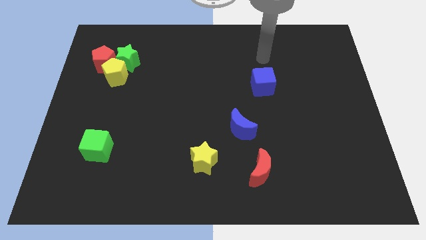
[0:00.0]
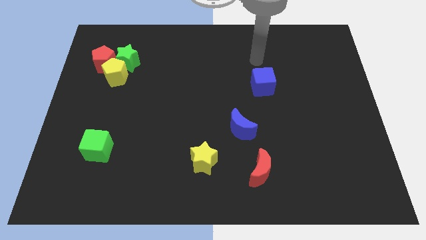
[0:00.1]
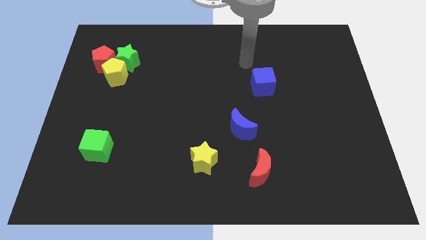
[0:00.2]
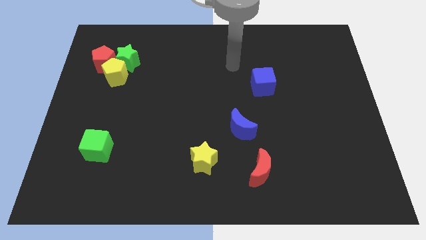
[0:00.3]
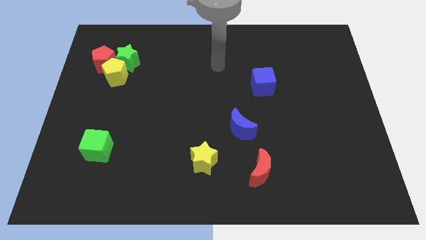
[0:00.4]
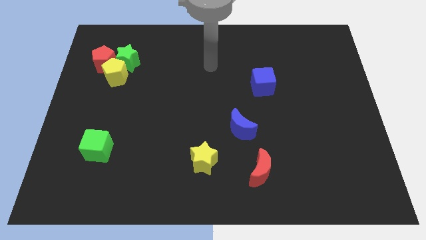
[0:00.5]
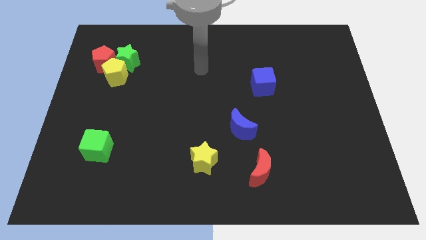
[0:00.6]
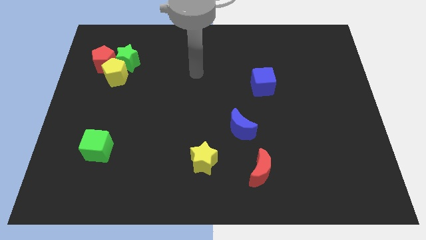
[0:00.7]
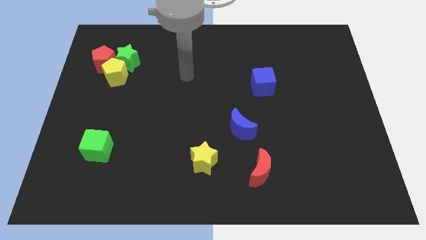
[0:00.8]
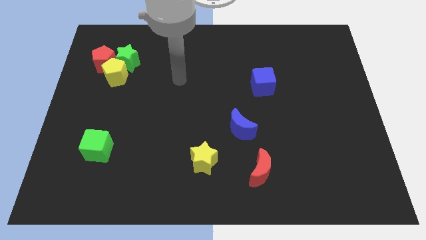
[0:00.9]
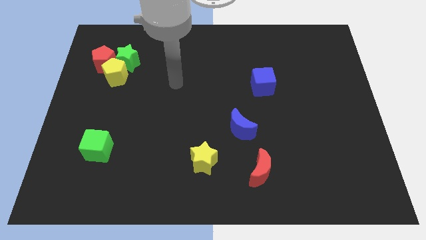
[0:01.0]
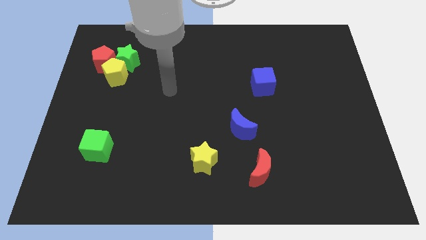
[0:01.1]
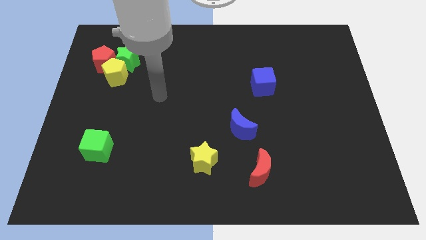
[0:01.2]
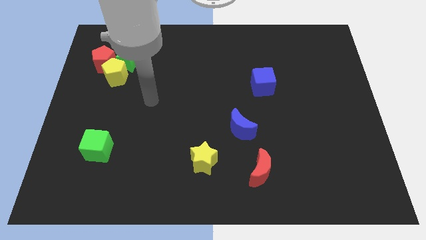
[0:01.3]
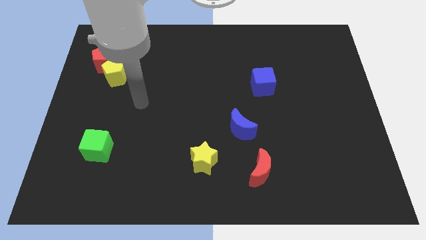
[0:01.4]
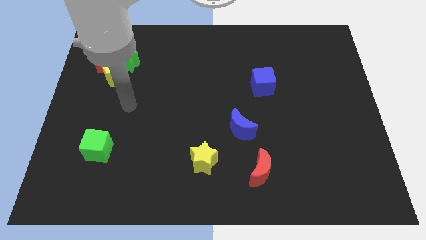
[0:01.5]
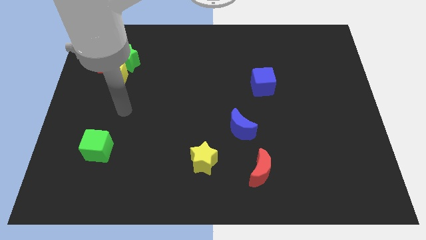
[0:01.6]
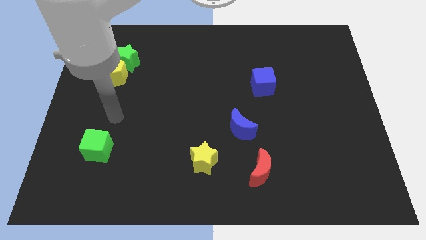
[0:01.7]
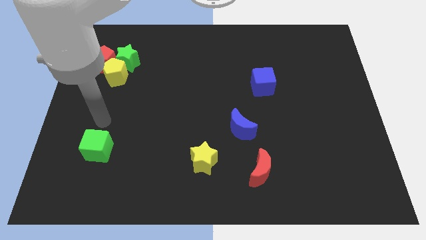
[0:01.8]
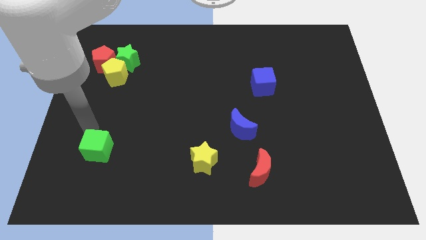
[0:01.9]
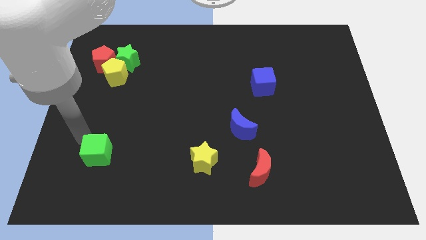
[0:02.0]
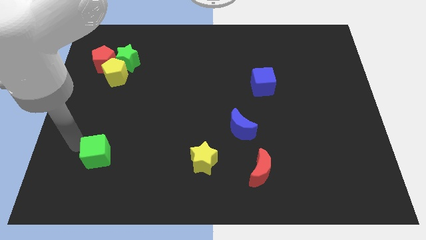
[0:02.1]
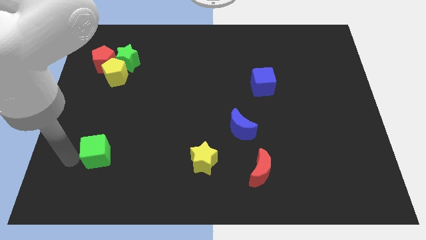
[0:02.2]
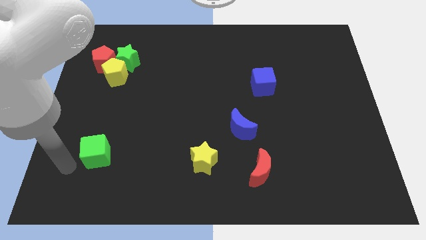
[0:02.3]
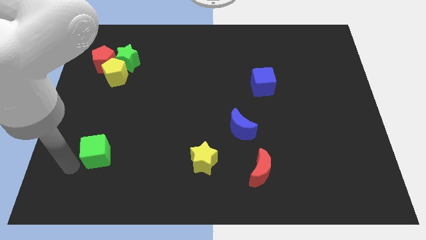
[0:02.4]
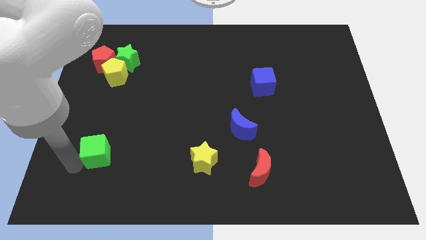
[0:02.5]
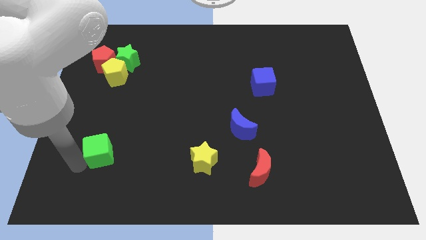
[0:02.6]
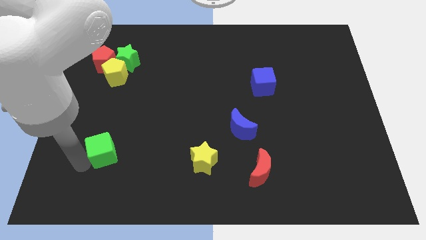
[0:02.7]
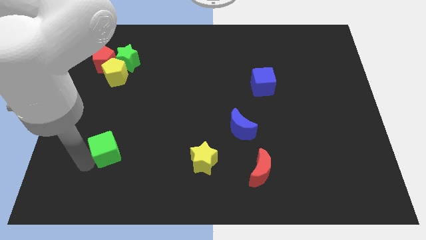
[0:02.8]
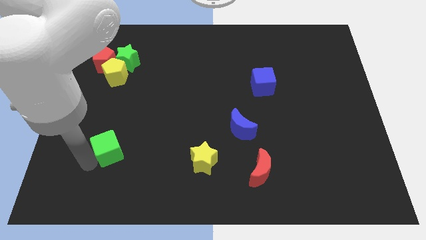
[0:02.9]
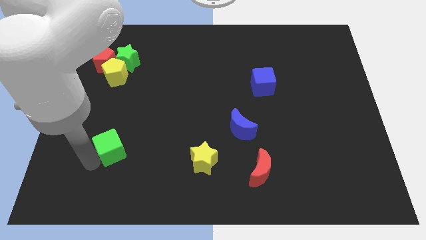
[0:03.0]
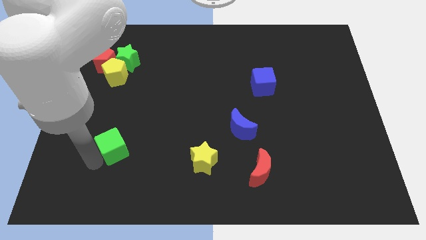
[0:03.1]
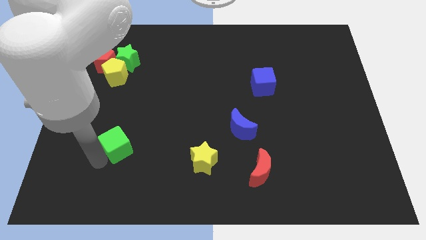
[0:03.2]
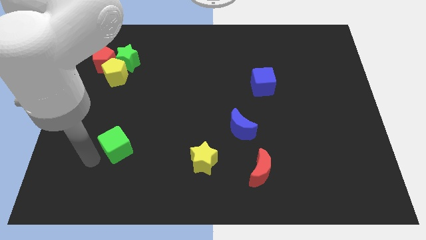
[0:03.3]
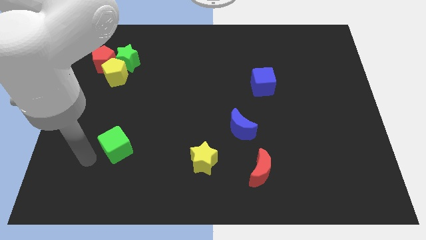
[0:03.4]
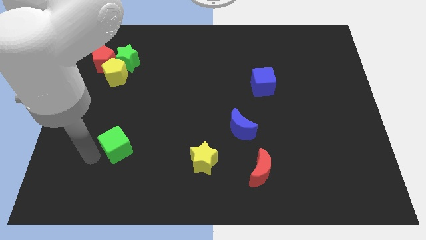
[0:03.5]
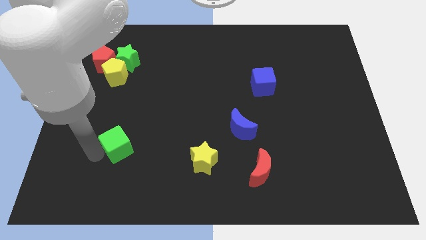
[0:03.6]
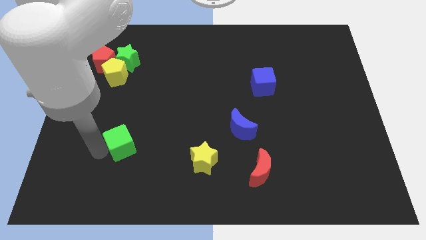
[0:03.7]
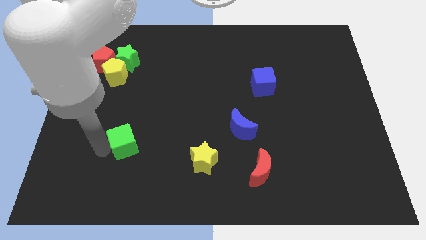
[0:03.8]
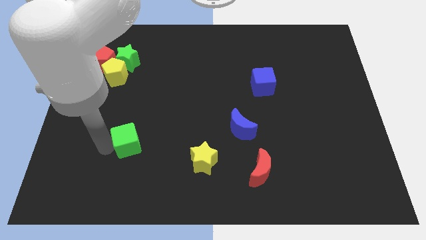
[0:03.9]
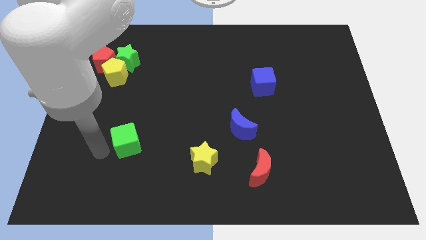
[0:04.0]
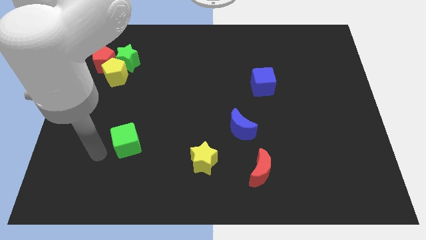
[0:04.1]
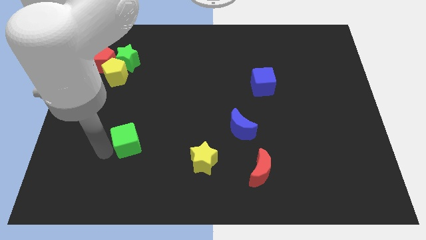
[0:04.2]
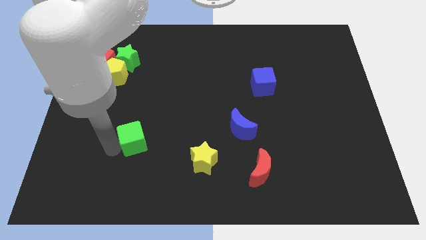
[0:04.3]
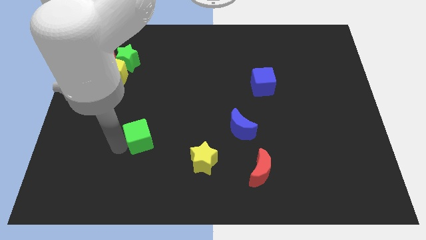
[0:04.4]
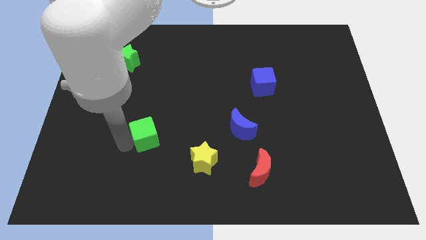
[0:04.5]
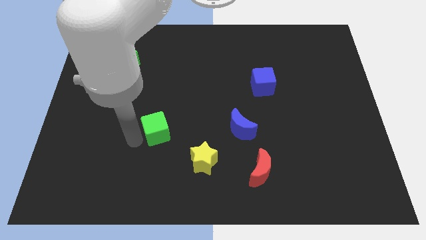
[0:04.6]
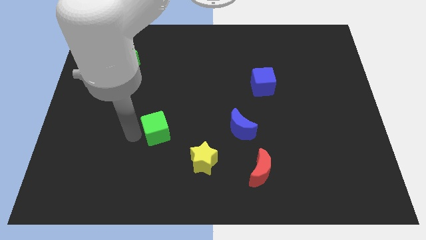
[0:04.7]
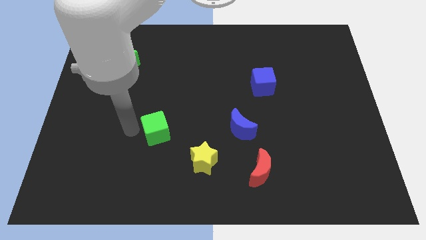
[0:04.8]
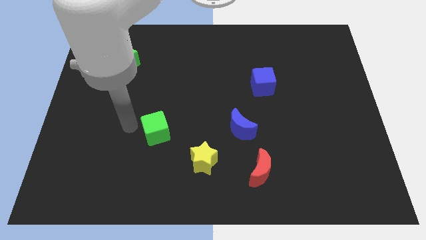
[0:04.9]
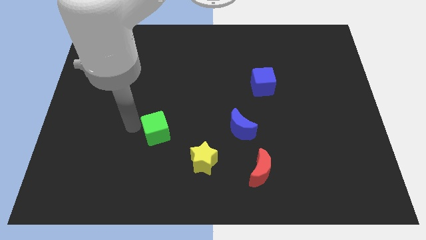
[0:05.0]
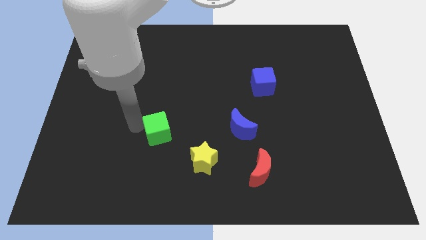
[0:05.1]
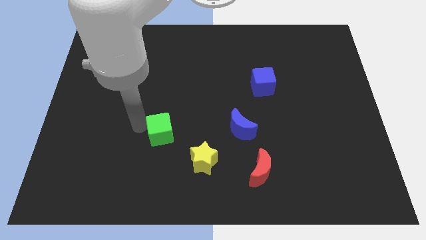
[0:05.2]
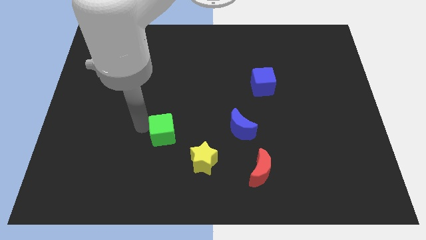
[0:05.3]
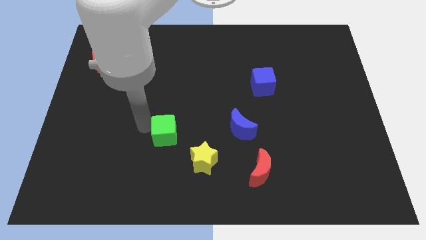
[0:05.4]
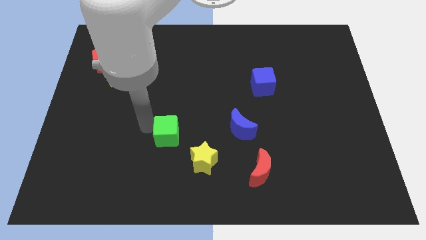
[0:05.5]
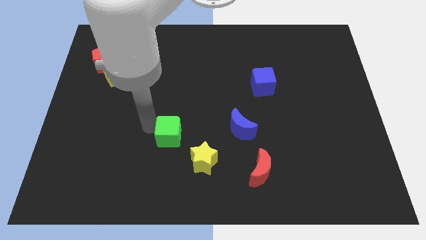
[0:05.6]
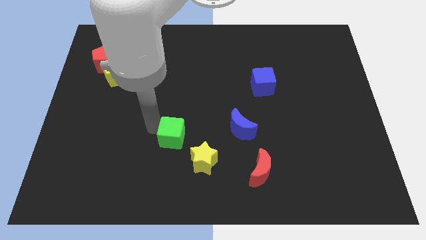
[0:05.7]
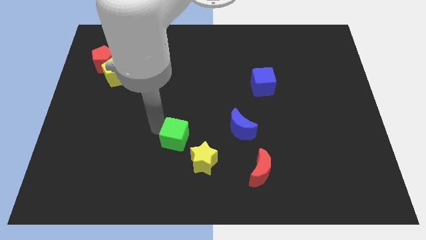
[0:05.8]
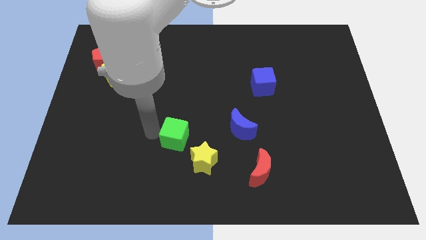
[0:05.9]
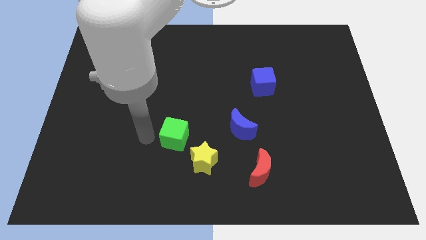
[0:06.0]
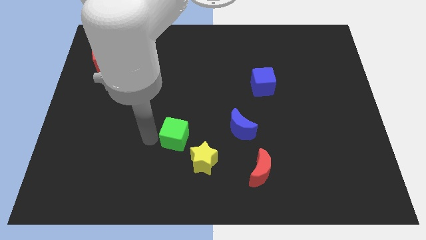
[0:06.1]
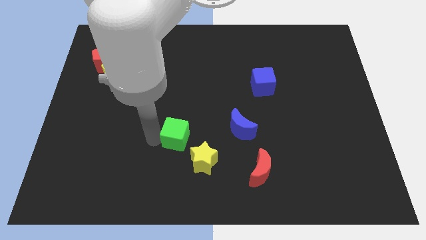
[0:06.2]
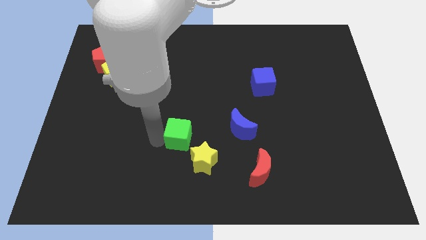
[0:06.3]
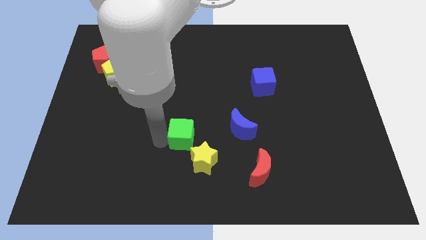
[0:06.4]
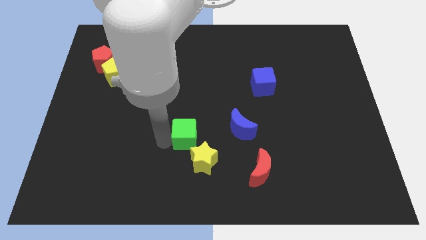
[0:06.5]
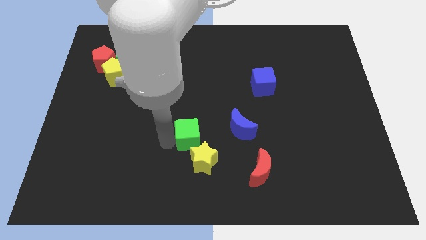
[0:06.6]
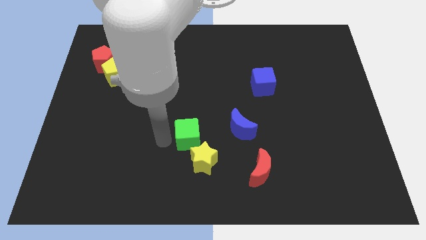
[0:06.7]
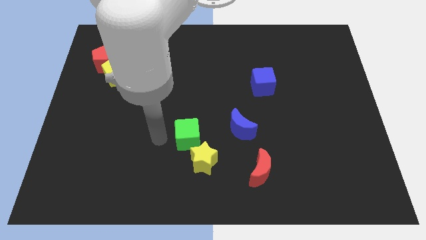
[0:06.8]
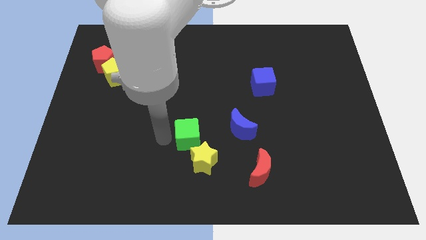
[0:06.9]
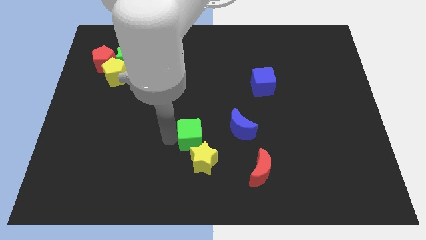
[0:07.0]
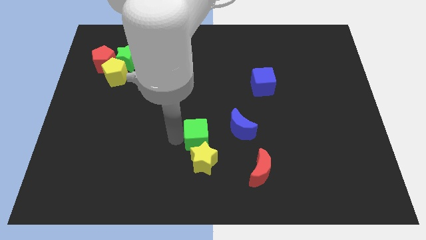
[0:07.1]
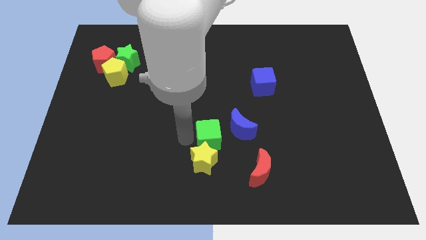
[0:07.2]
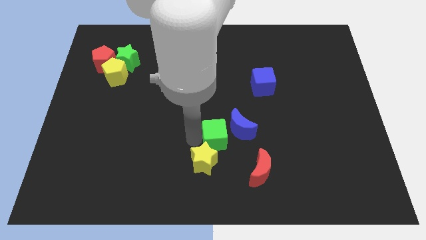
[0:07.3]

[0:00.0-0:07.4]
move the green cube towards the blue moon

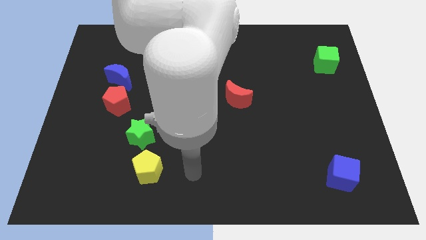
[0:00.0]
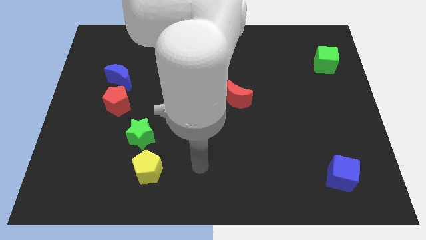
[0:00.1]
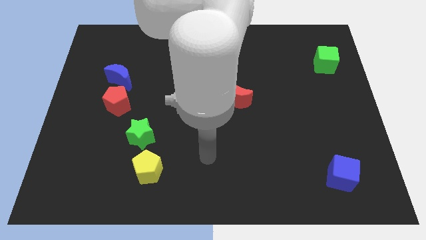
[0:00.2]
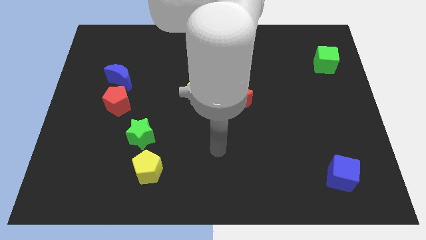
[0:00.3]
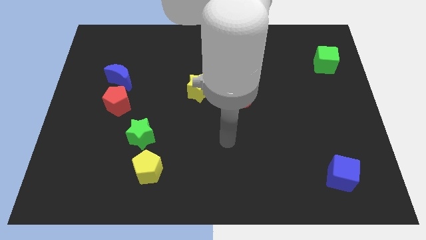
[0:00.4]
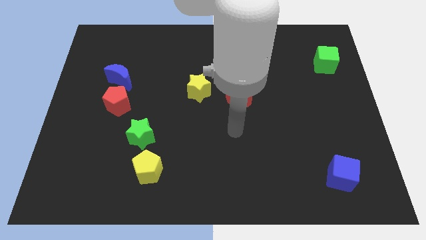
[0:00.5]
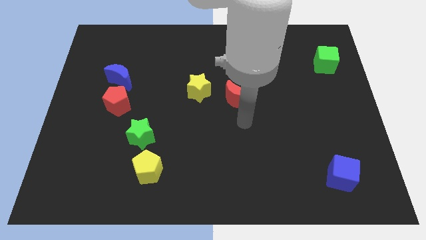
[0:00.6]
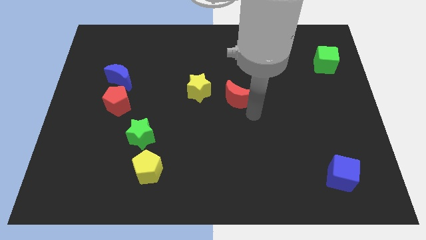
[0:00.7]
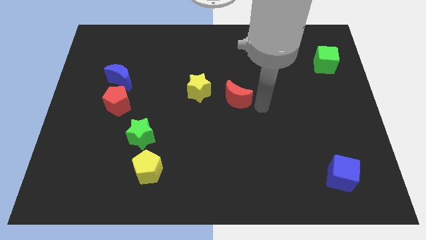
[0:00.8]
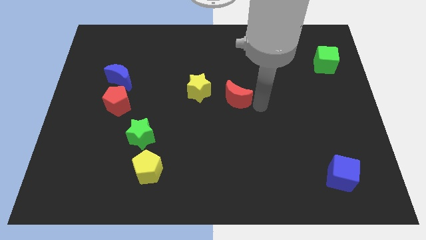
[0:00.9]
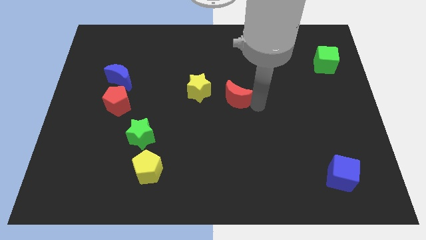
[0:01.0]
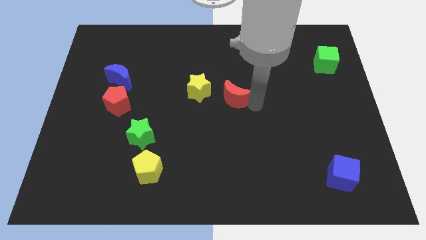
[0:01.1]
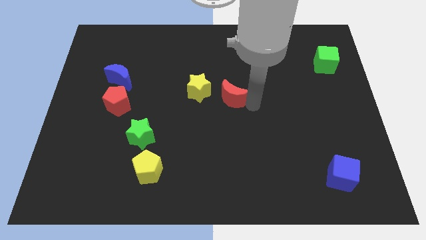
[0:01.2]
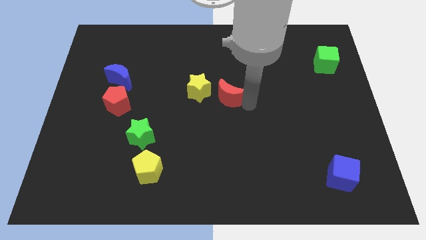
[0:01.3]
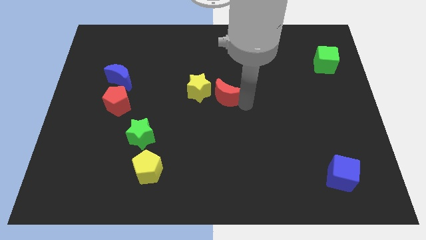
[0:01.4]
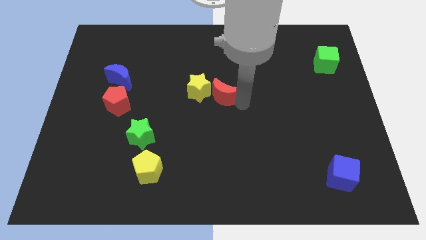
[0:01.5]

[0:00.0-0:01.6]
put the red moon next to the yellow star
